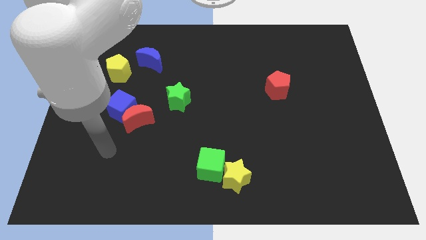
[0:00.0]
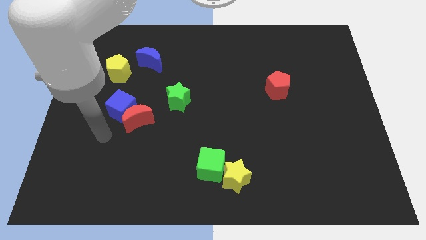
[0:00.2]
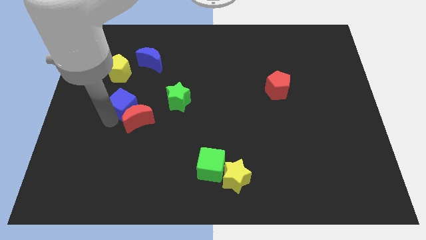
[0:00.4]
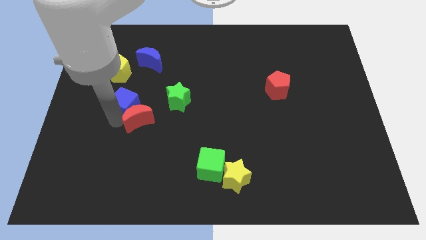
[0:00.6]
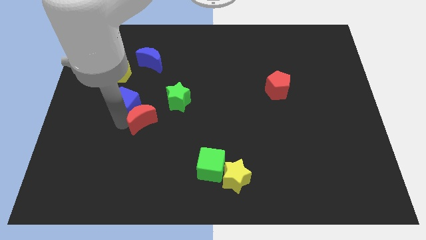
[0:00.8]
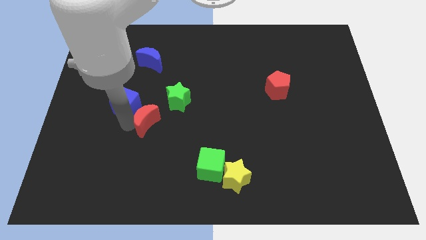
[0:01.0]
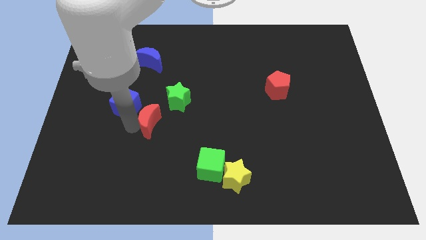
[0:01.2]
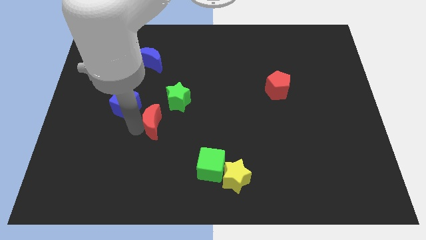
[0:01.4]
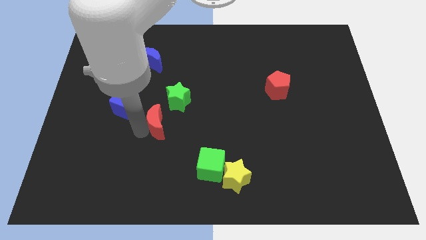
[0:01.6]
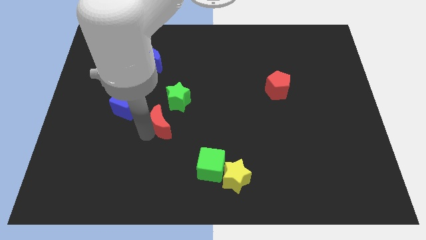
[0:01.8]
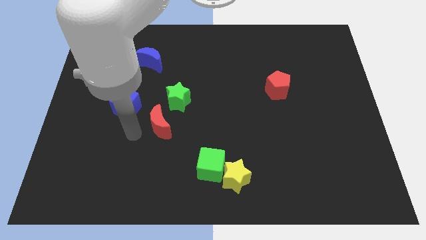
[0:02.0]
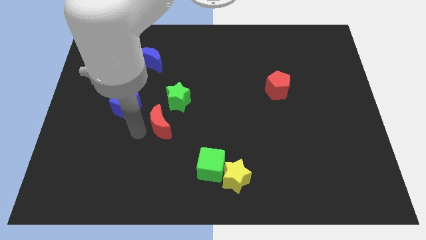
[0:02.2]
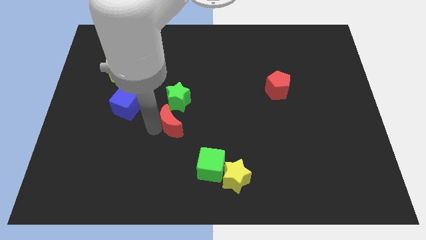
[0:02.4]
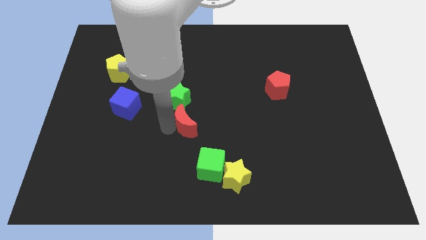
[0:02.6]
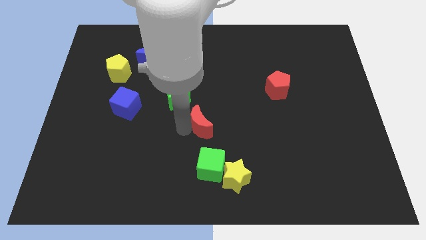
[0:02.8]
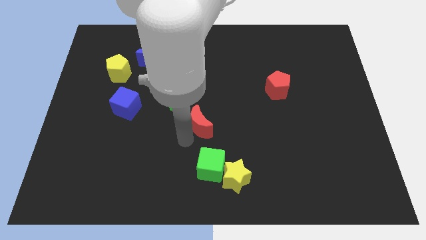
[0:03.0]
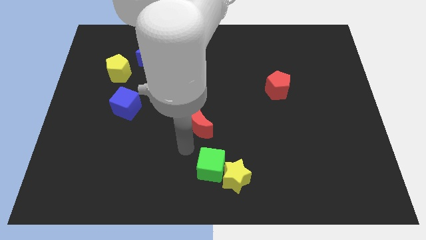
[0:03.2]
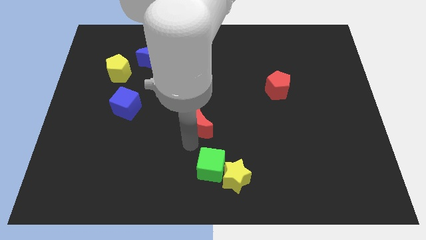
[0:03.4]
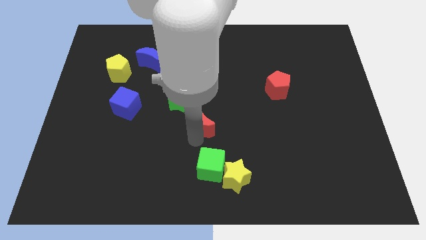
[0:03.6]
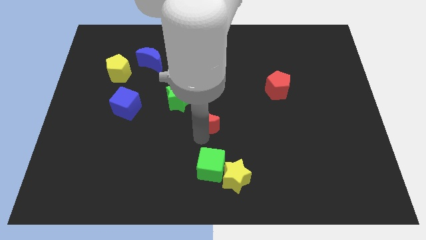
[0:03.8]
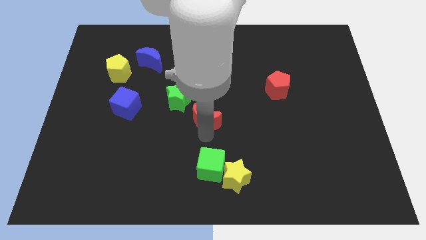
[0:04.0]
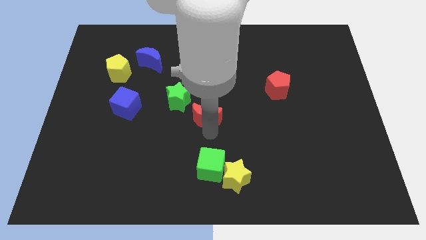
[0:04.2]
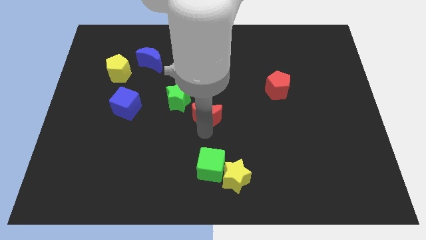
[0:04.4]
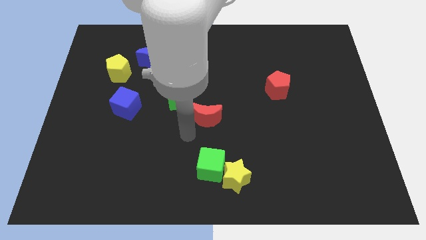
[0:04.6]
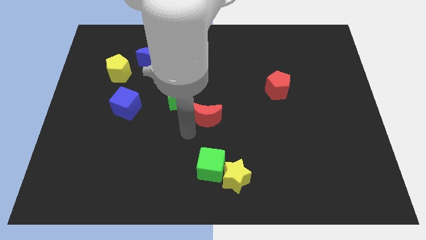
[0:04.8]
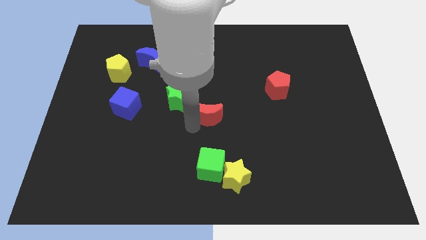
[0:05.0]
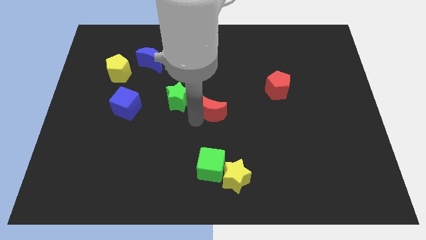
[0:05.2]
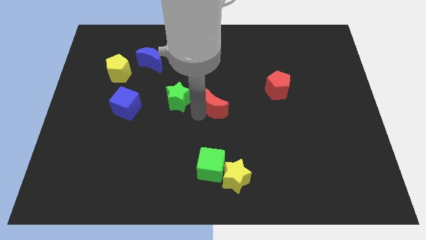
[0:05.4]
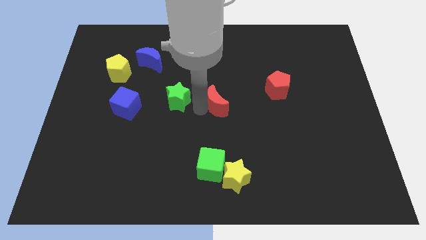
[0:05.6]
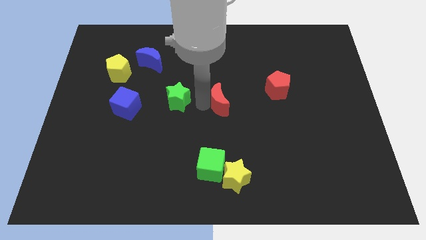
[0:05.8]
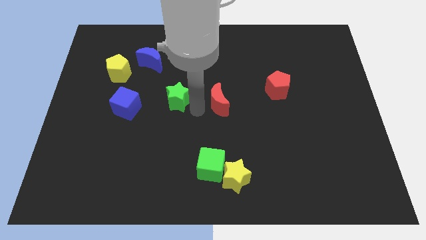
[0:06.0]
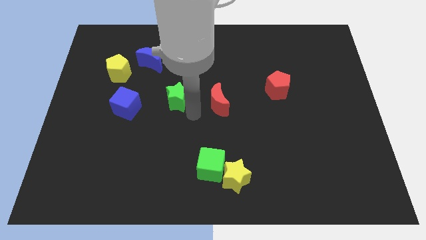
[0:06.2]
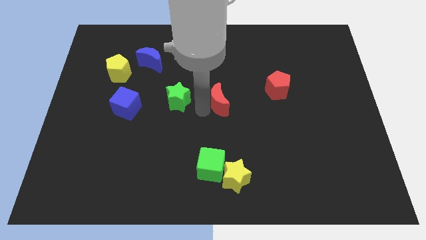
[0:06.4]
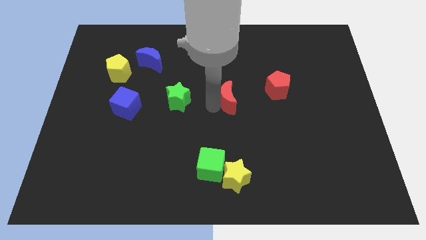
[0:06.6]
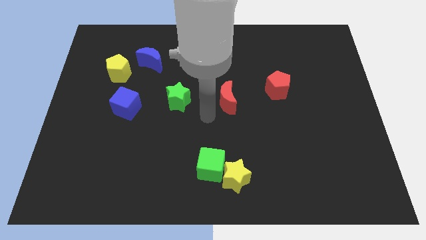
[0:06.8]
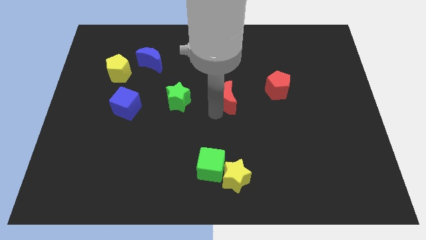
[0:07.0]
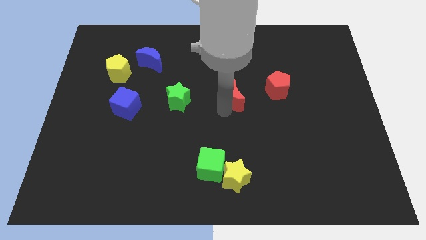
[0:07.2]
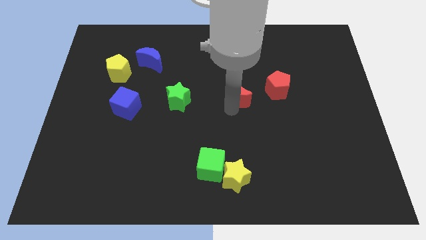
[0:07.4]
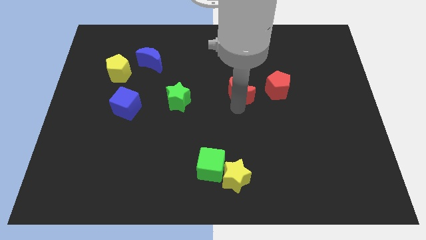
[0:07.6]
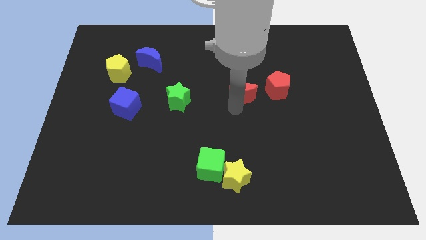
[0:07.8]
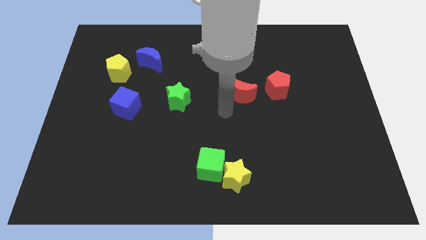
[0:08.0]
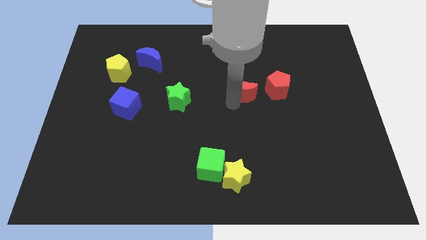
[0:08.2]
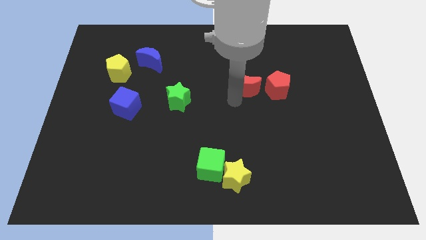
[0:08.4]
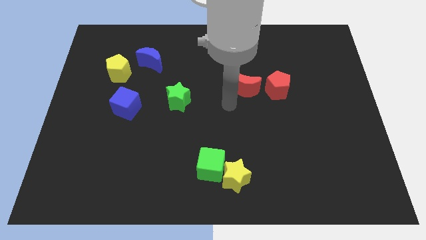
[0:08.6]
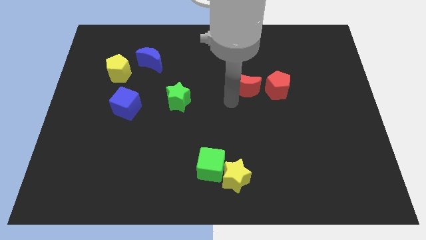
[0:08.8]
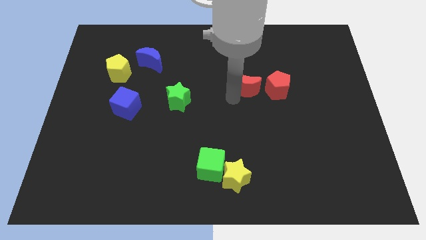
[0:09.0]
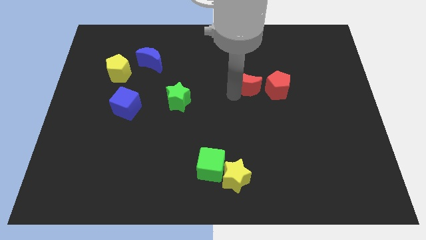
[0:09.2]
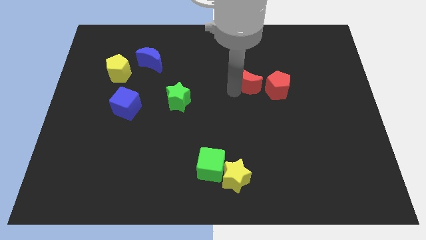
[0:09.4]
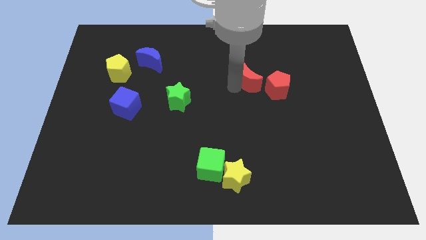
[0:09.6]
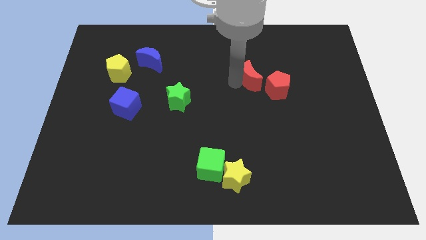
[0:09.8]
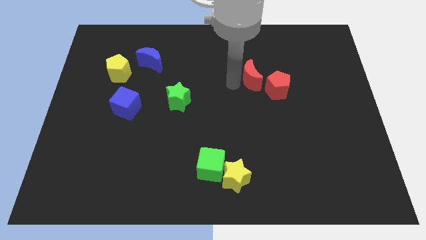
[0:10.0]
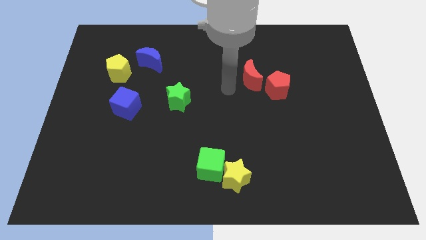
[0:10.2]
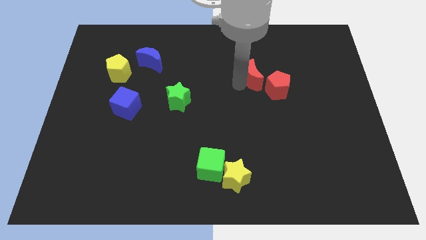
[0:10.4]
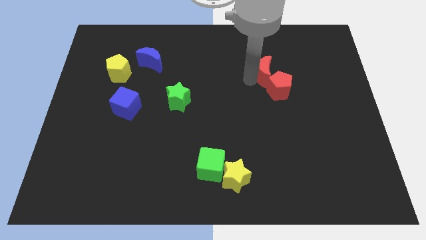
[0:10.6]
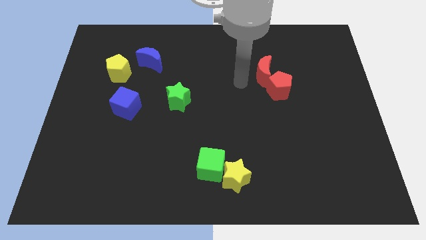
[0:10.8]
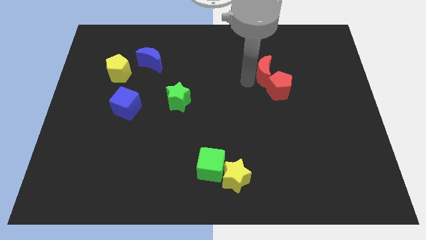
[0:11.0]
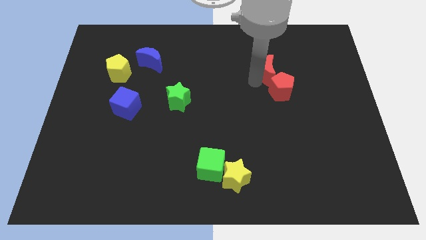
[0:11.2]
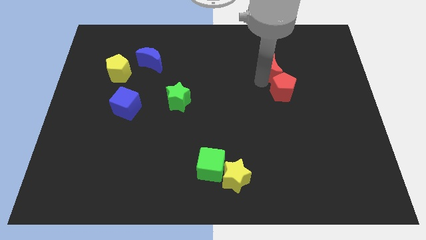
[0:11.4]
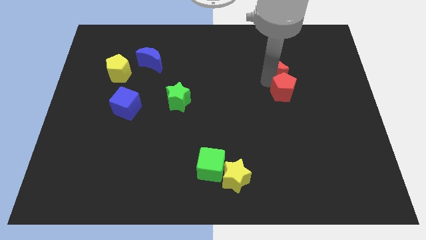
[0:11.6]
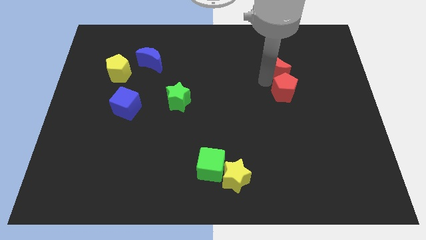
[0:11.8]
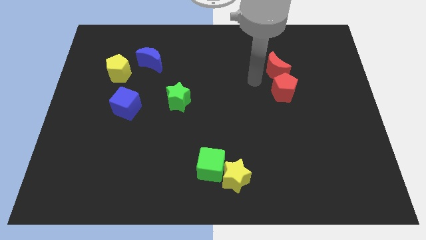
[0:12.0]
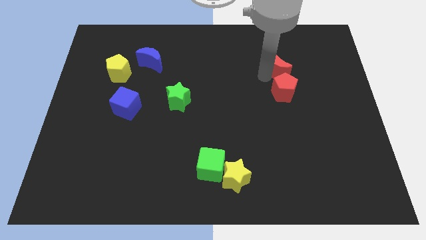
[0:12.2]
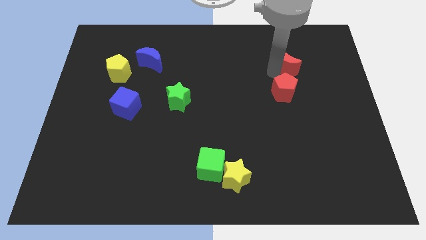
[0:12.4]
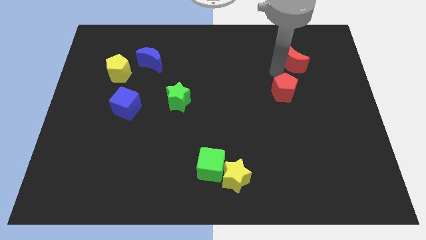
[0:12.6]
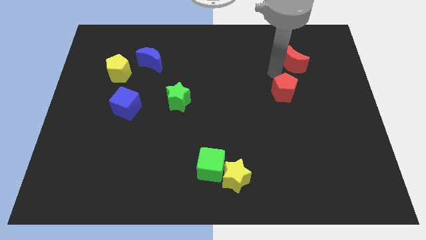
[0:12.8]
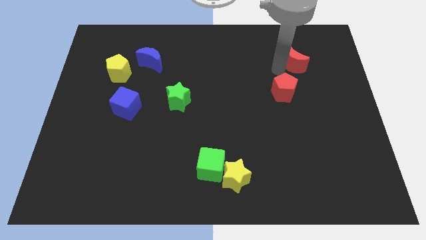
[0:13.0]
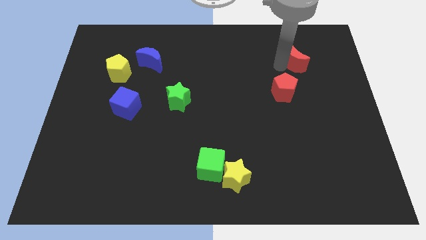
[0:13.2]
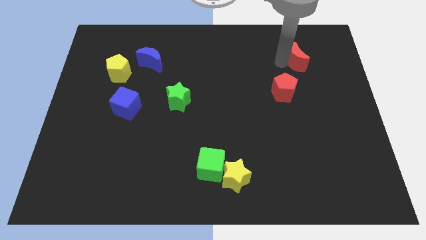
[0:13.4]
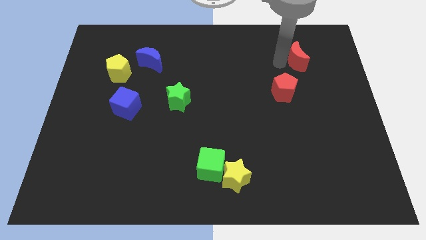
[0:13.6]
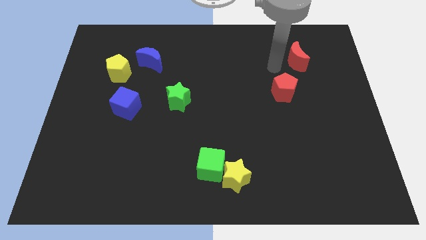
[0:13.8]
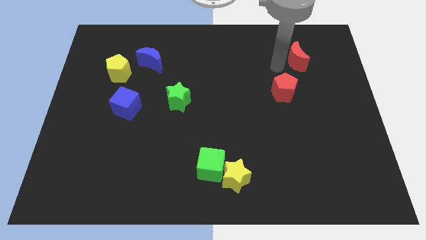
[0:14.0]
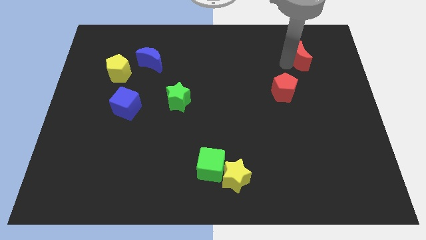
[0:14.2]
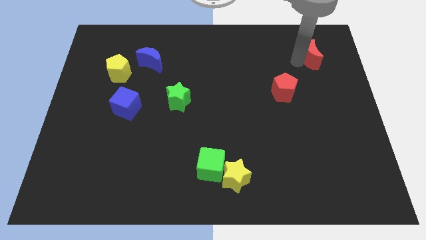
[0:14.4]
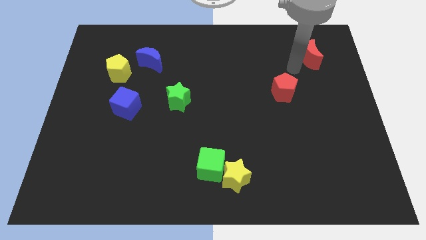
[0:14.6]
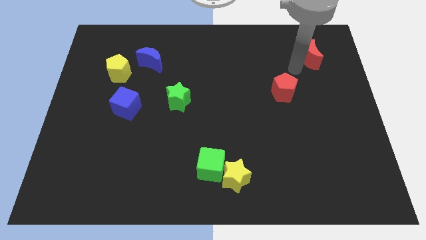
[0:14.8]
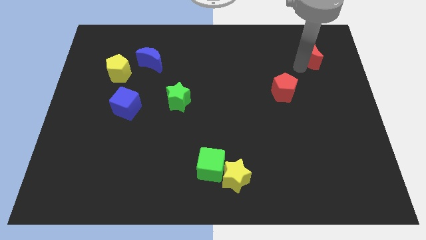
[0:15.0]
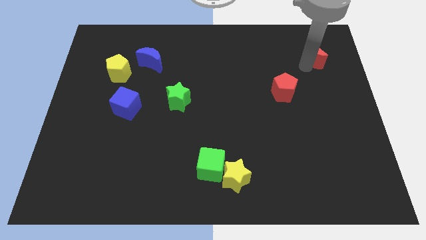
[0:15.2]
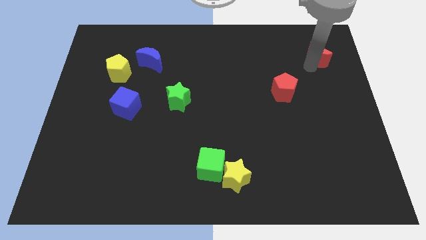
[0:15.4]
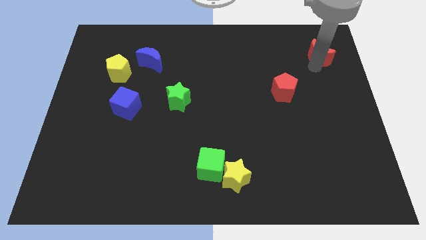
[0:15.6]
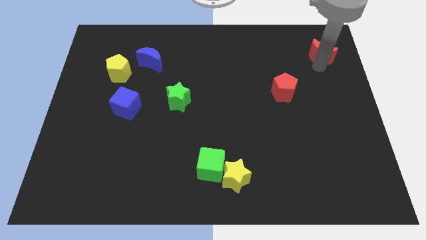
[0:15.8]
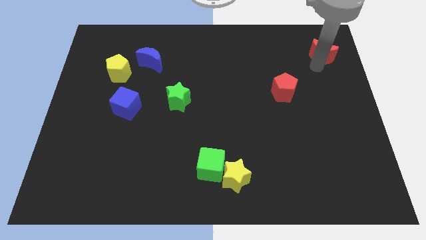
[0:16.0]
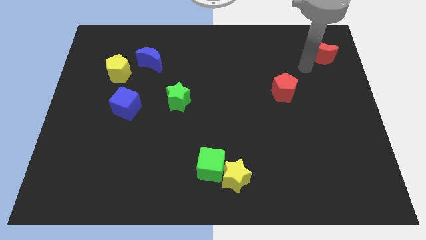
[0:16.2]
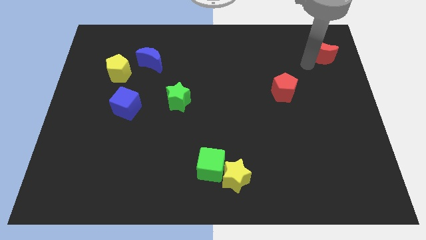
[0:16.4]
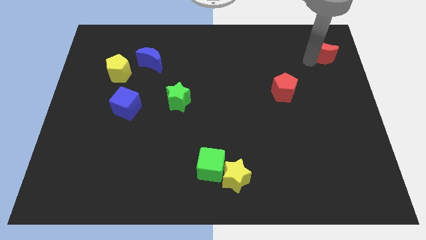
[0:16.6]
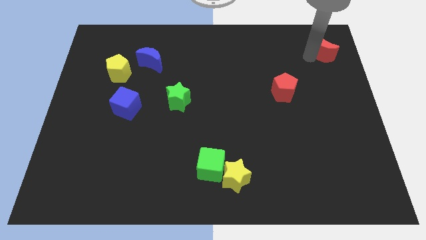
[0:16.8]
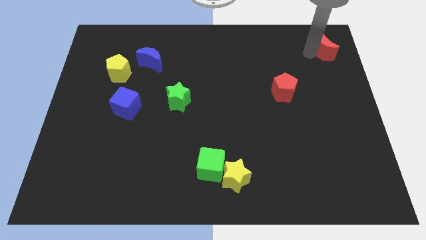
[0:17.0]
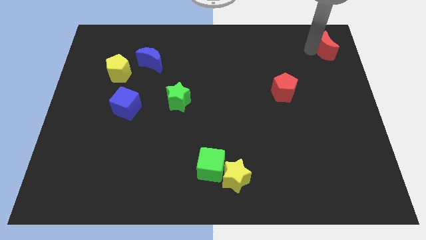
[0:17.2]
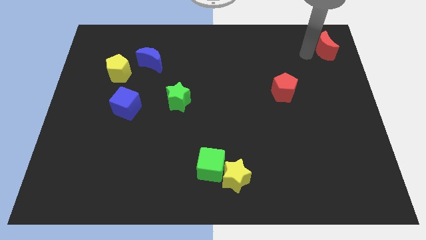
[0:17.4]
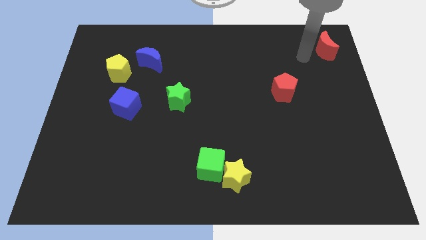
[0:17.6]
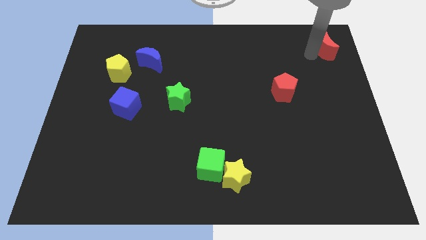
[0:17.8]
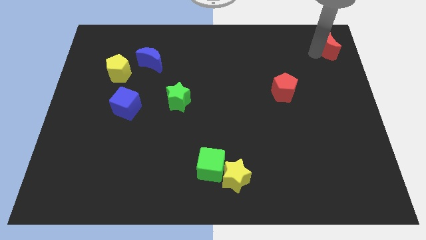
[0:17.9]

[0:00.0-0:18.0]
move the red moon to the top right
